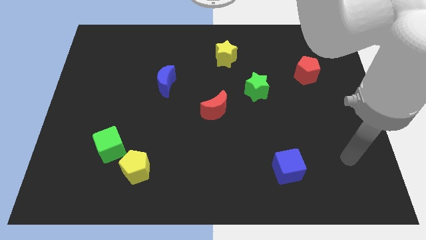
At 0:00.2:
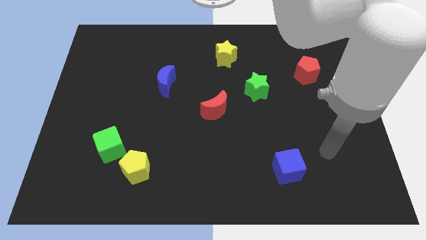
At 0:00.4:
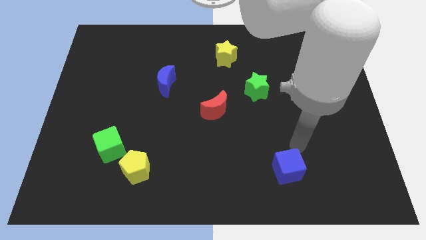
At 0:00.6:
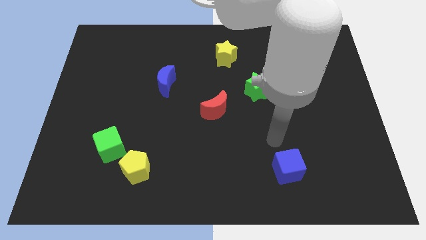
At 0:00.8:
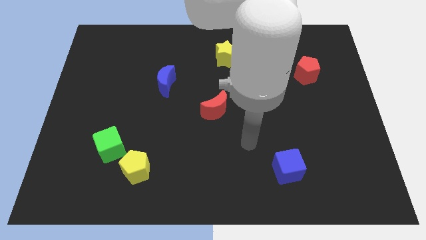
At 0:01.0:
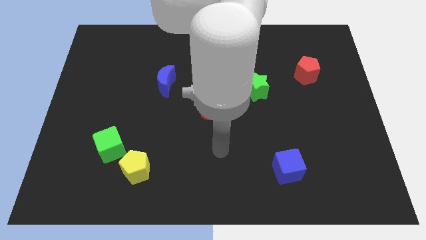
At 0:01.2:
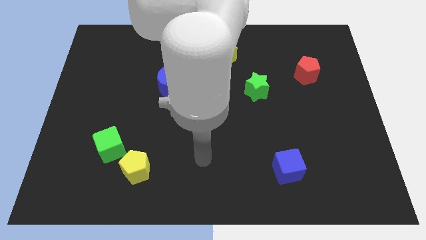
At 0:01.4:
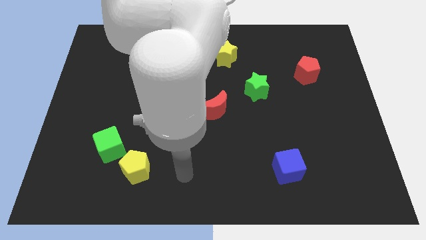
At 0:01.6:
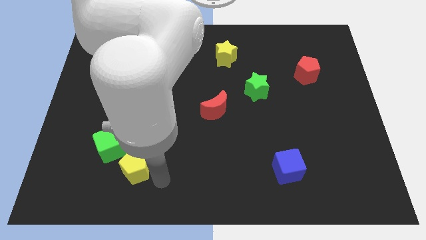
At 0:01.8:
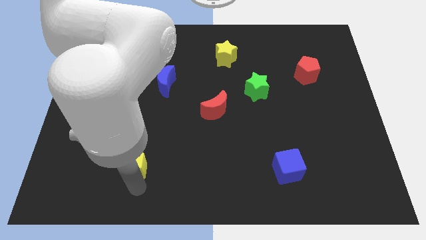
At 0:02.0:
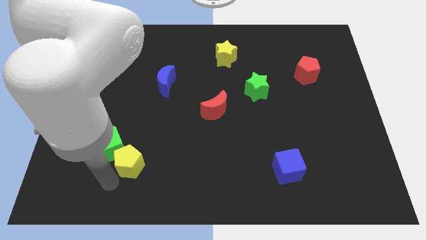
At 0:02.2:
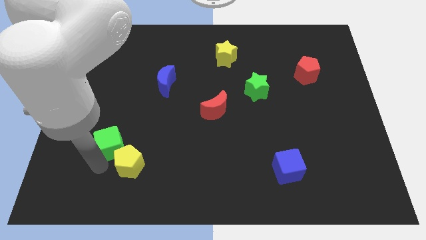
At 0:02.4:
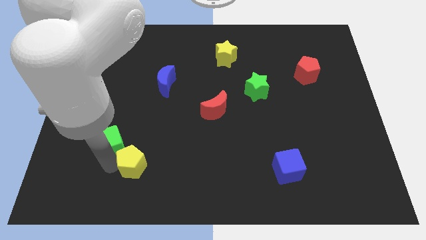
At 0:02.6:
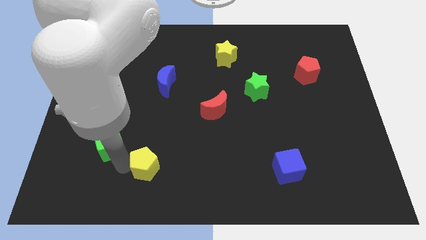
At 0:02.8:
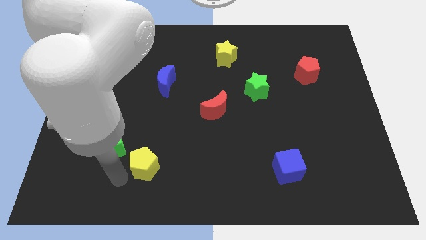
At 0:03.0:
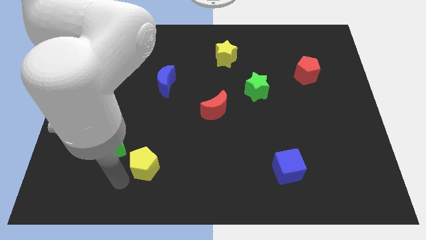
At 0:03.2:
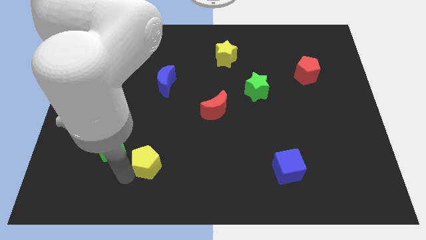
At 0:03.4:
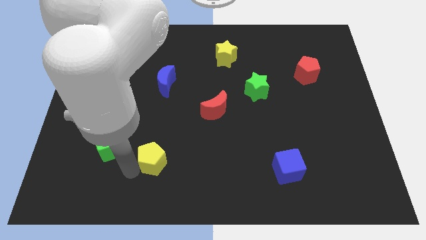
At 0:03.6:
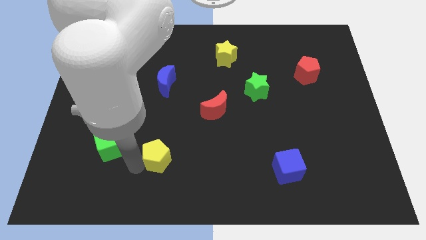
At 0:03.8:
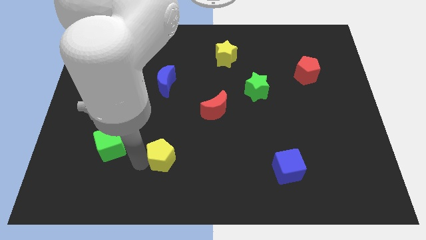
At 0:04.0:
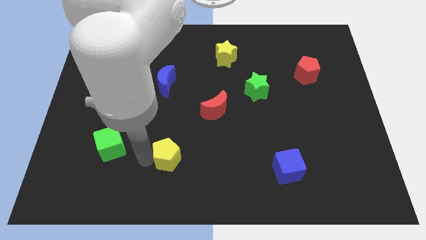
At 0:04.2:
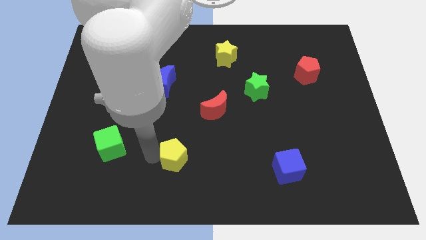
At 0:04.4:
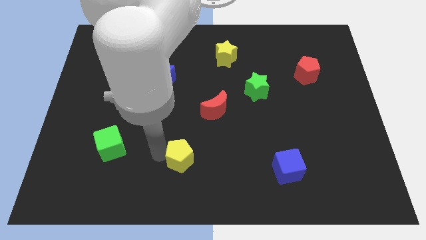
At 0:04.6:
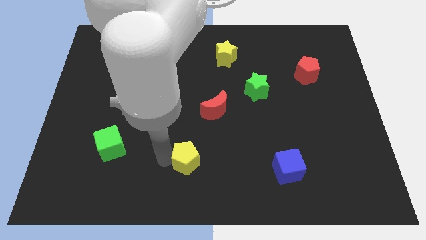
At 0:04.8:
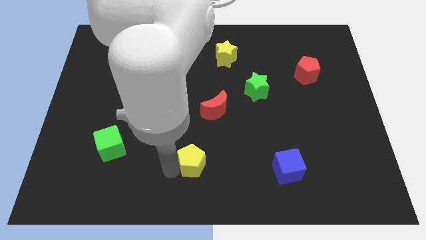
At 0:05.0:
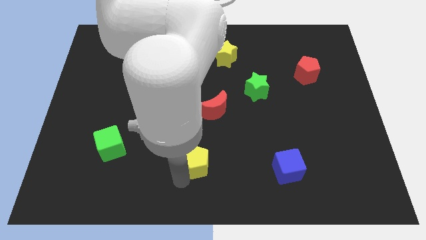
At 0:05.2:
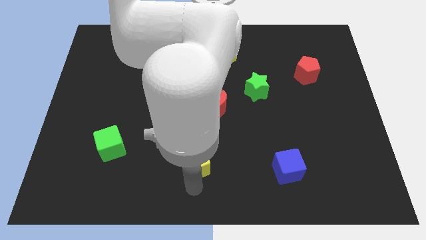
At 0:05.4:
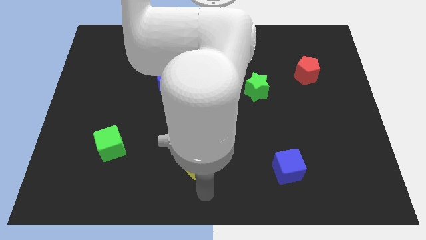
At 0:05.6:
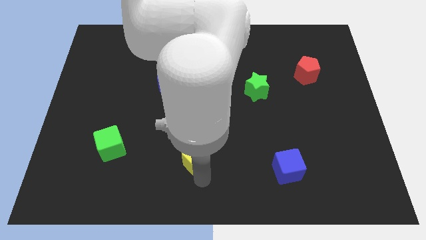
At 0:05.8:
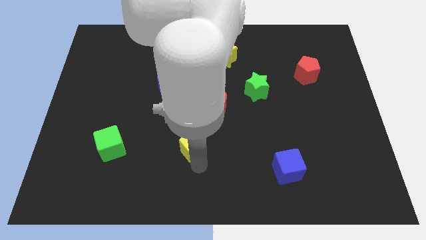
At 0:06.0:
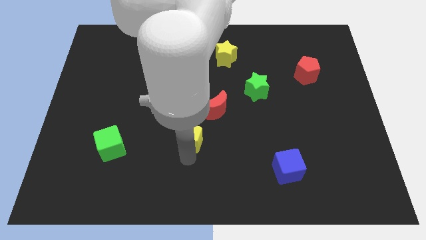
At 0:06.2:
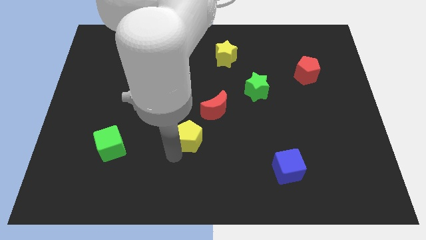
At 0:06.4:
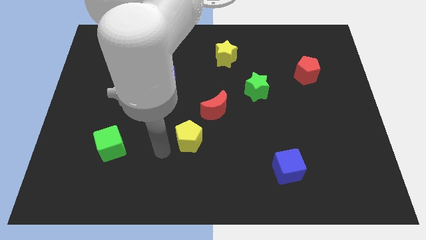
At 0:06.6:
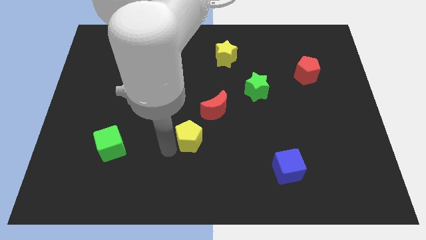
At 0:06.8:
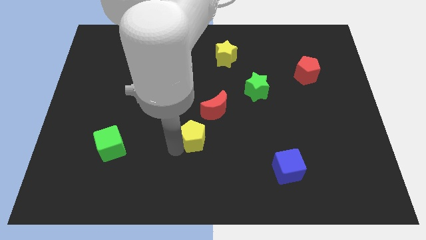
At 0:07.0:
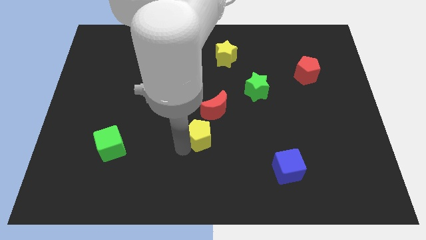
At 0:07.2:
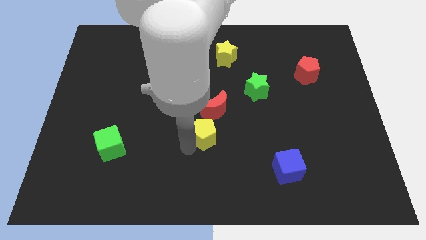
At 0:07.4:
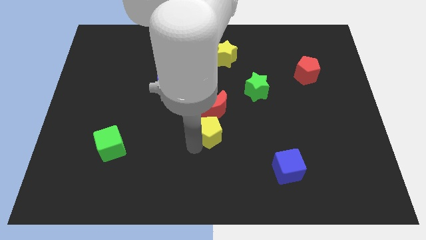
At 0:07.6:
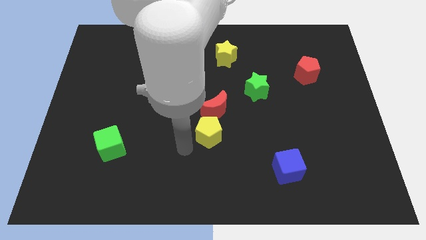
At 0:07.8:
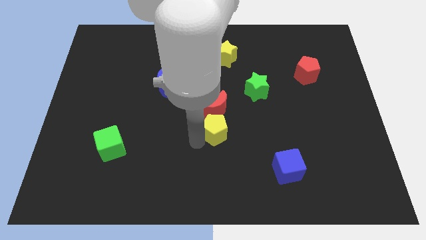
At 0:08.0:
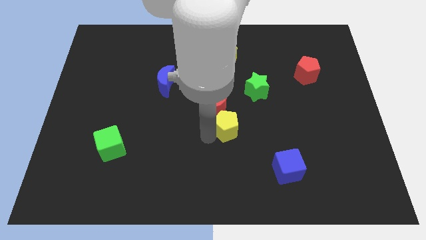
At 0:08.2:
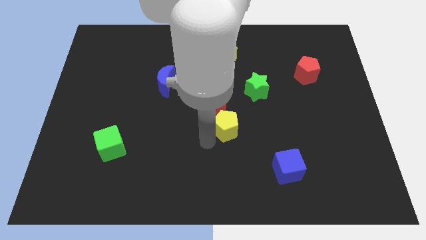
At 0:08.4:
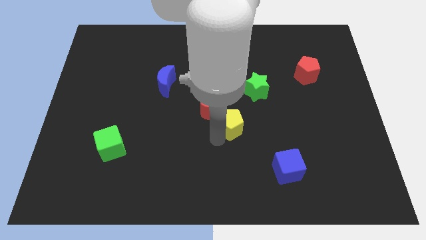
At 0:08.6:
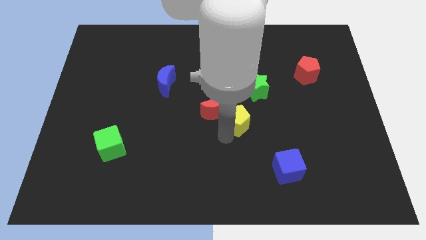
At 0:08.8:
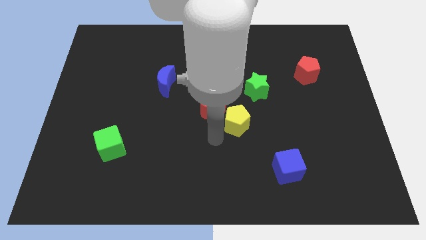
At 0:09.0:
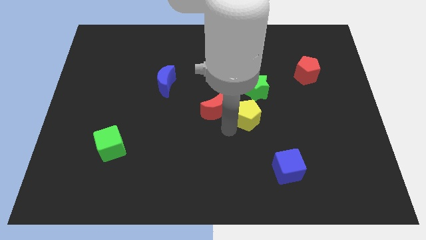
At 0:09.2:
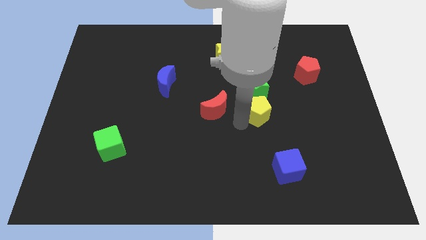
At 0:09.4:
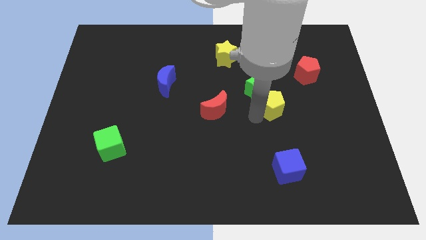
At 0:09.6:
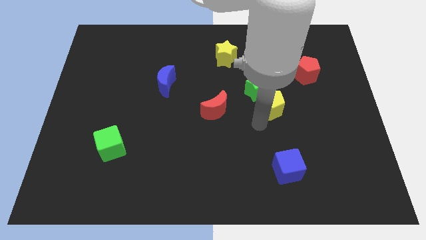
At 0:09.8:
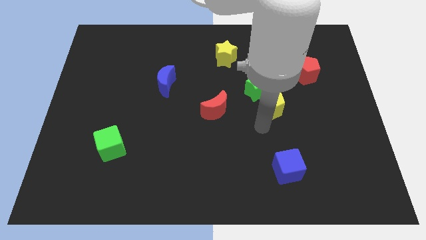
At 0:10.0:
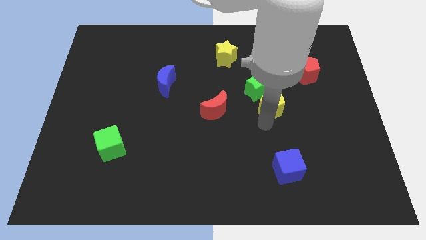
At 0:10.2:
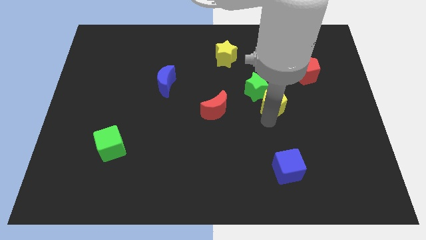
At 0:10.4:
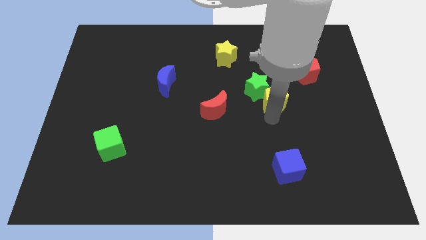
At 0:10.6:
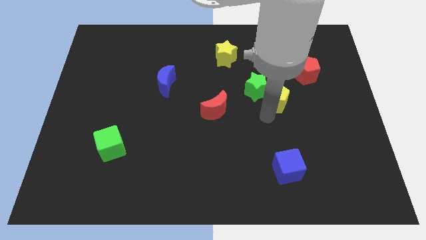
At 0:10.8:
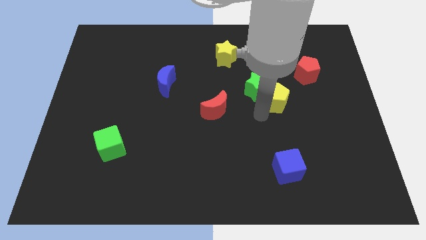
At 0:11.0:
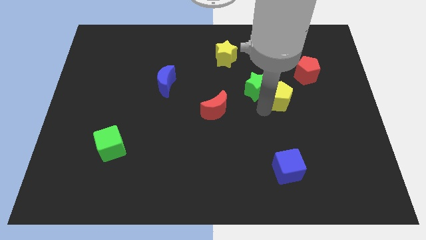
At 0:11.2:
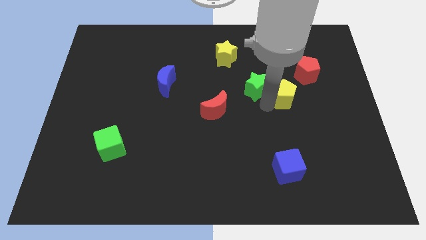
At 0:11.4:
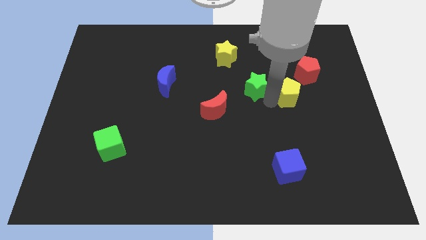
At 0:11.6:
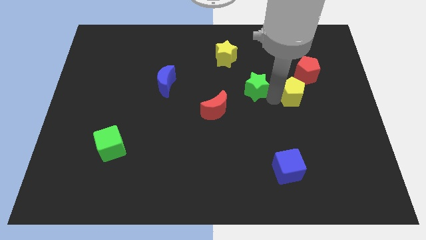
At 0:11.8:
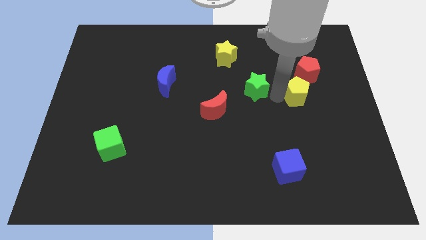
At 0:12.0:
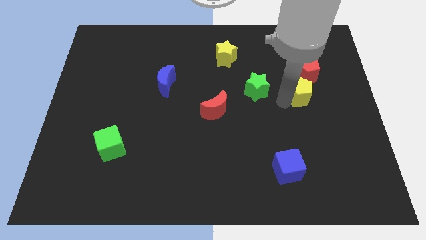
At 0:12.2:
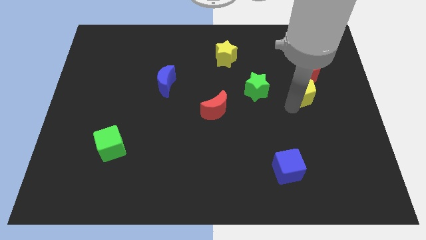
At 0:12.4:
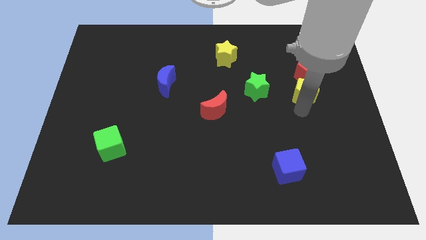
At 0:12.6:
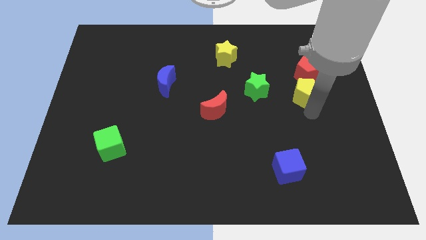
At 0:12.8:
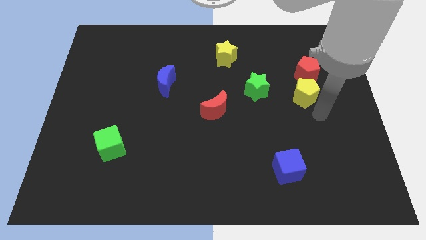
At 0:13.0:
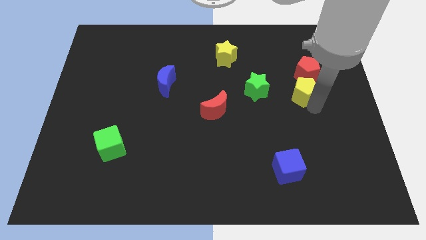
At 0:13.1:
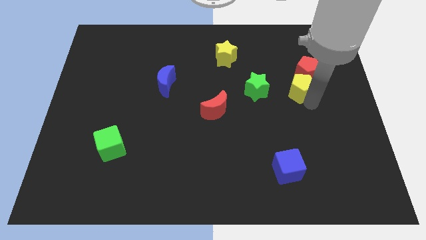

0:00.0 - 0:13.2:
slide the yellow pentagon close to the red pentagon
